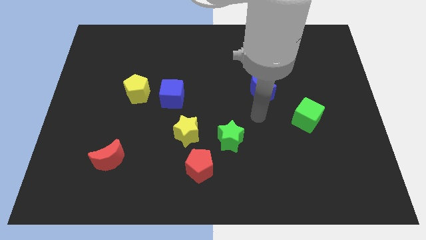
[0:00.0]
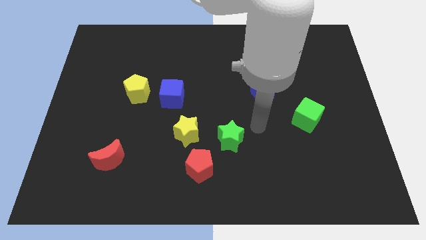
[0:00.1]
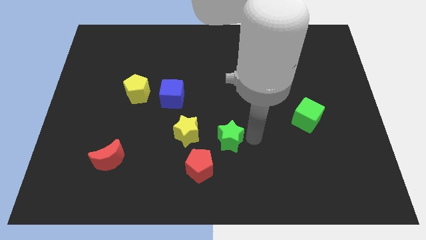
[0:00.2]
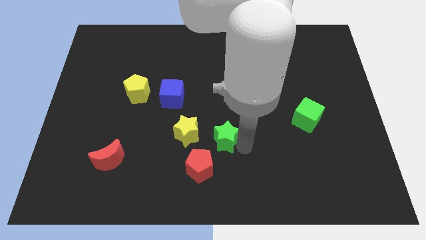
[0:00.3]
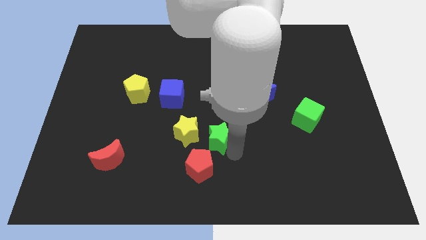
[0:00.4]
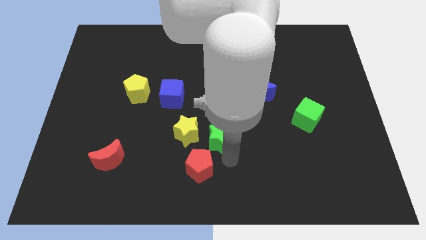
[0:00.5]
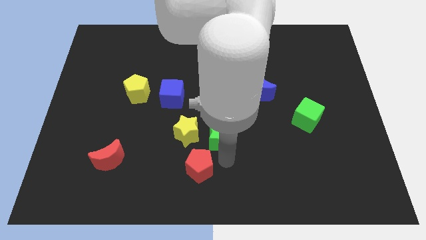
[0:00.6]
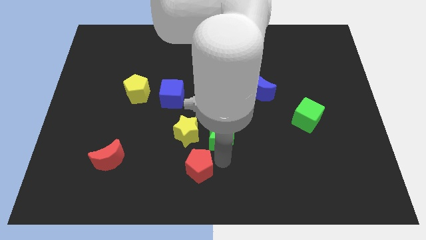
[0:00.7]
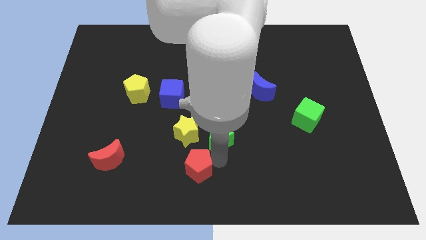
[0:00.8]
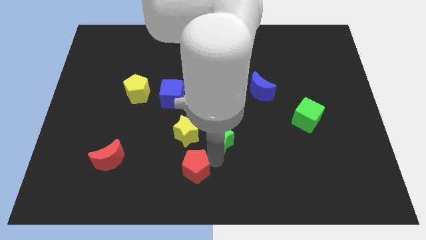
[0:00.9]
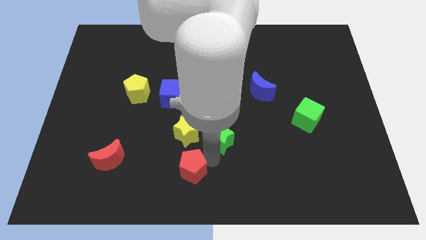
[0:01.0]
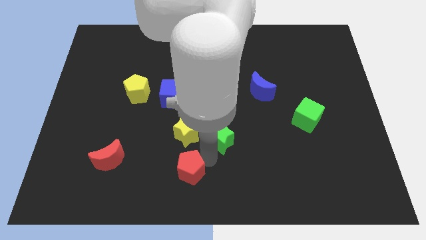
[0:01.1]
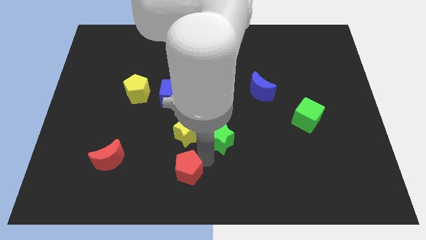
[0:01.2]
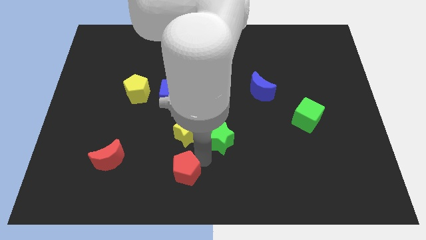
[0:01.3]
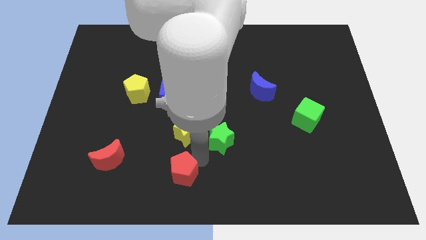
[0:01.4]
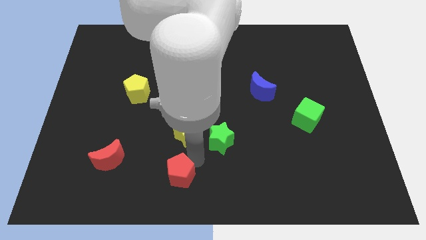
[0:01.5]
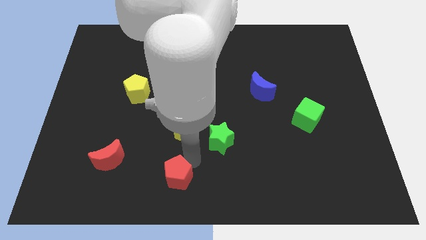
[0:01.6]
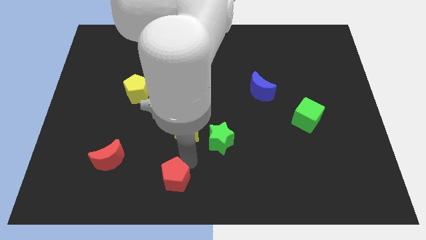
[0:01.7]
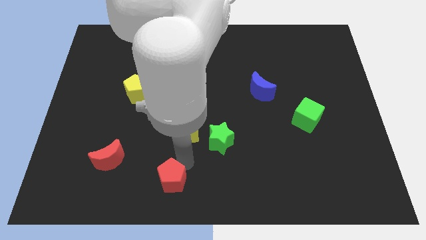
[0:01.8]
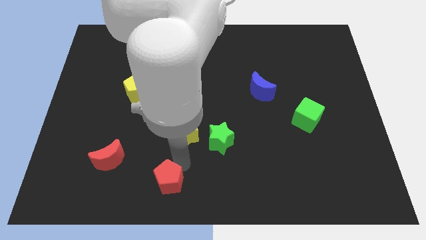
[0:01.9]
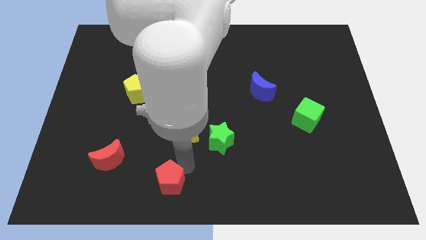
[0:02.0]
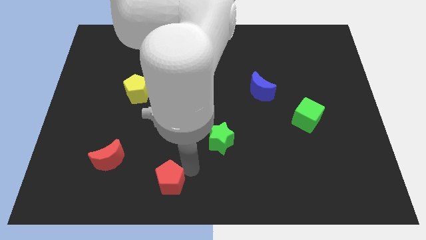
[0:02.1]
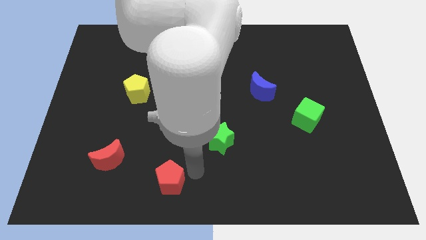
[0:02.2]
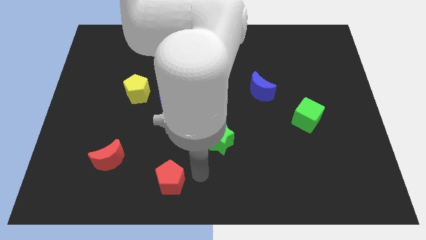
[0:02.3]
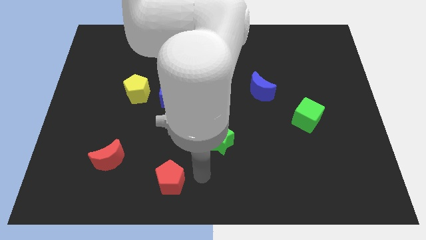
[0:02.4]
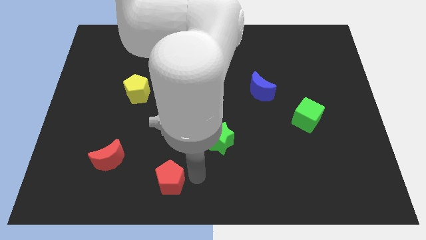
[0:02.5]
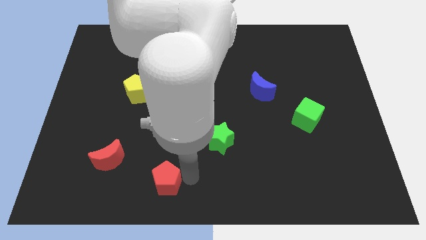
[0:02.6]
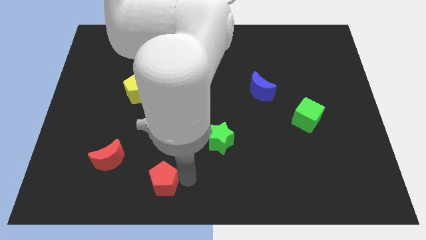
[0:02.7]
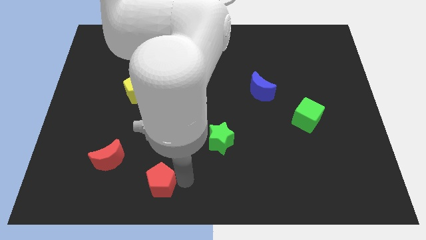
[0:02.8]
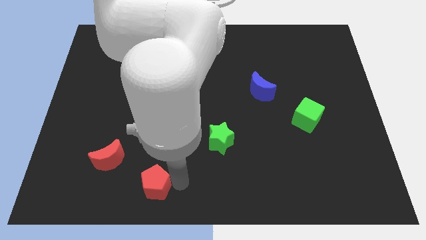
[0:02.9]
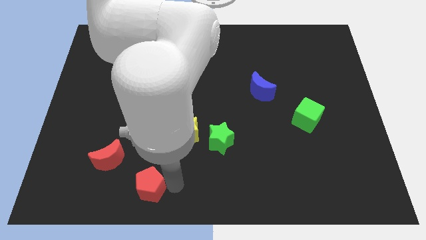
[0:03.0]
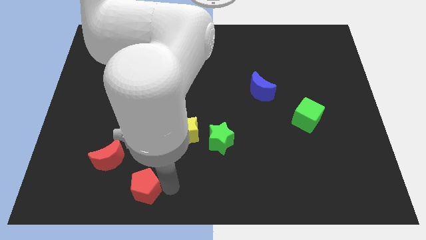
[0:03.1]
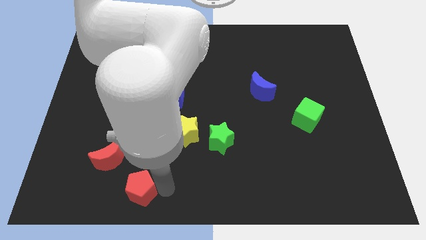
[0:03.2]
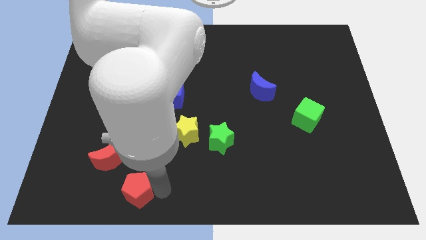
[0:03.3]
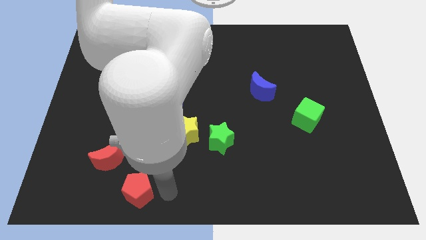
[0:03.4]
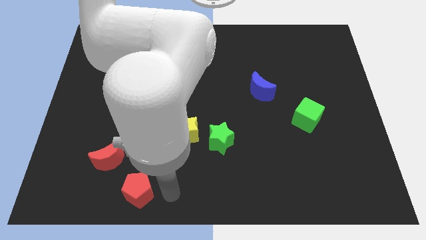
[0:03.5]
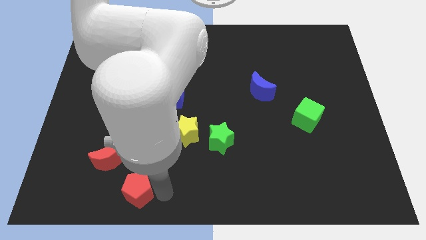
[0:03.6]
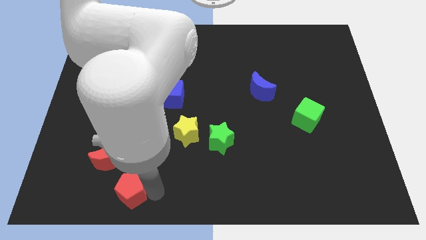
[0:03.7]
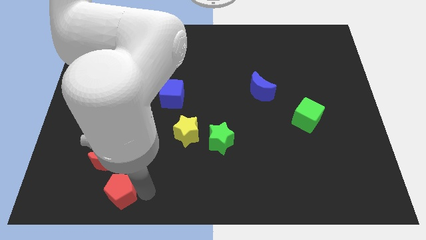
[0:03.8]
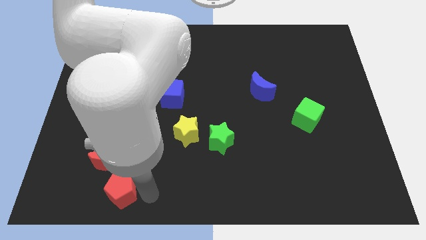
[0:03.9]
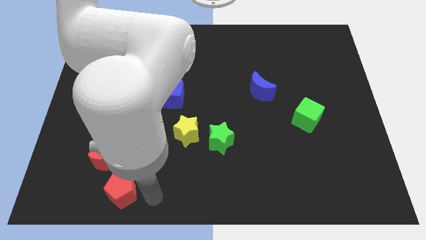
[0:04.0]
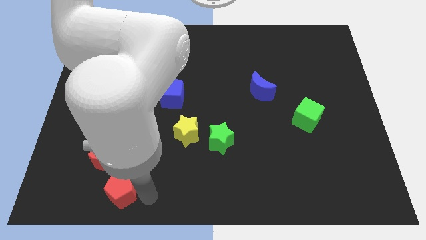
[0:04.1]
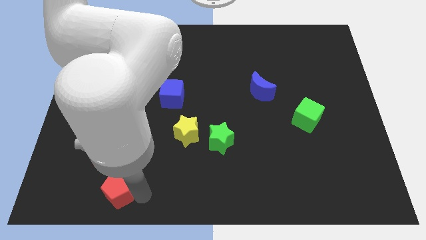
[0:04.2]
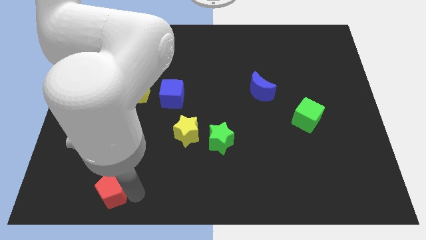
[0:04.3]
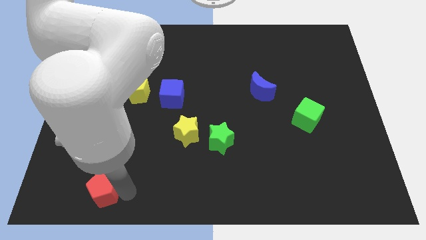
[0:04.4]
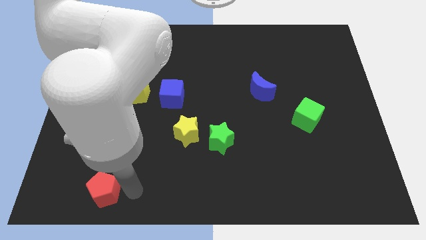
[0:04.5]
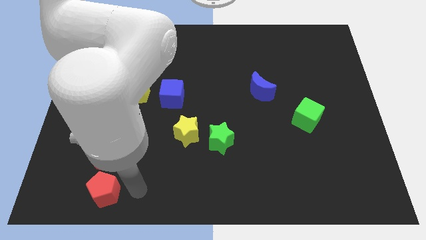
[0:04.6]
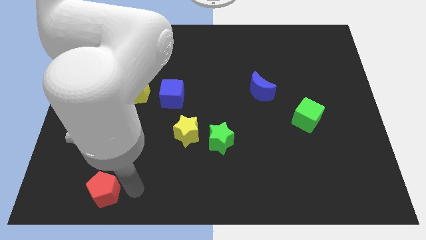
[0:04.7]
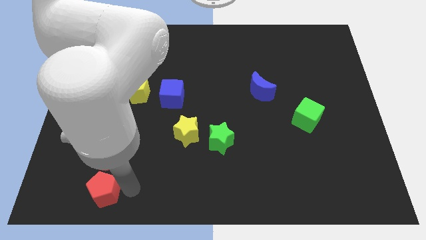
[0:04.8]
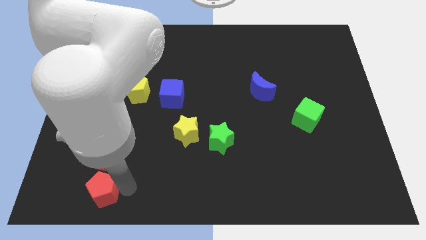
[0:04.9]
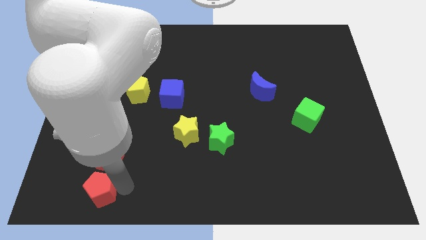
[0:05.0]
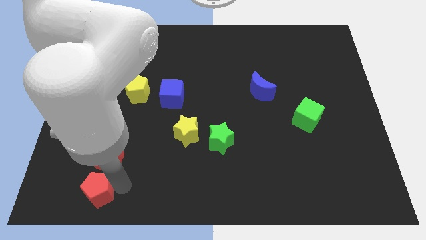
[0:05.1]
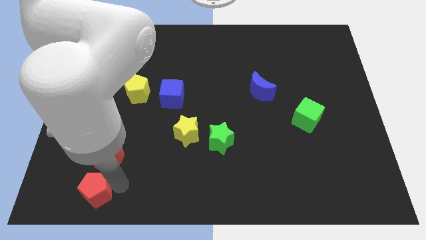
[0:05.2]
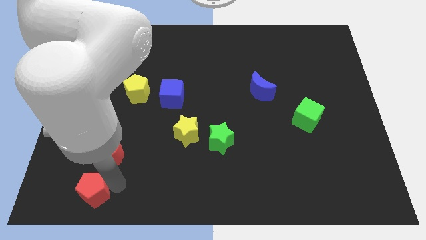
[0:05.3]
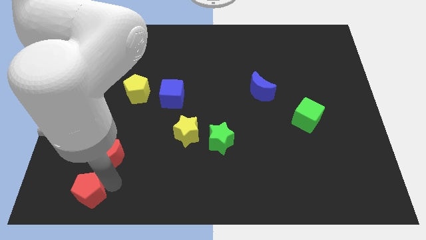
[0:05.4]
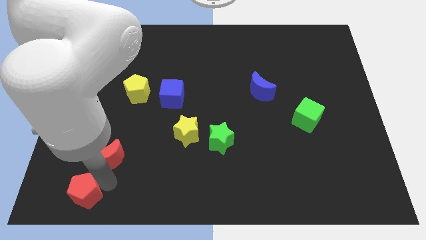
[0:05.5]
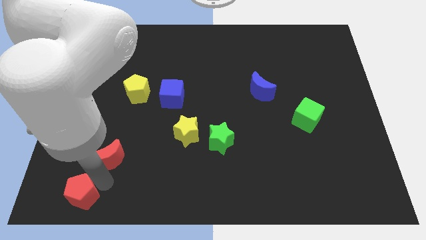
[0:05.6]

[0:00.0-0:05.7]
slide the red pentagon to the bottom left
